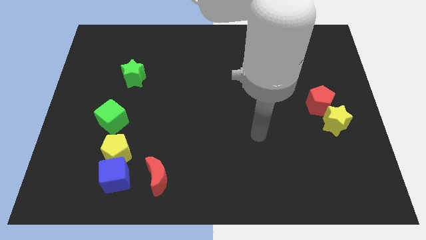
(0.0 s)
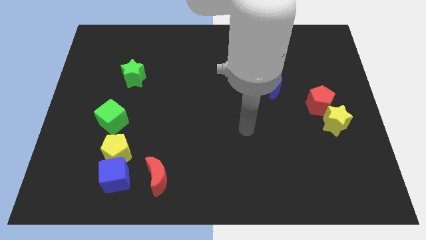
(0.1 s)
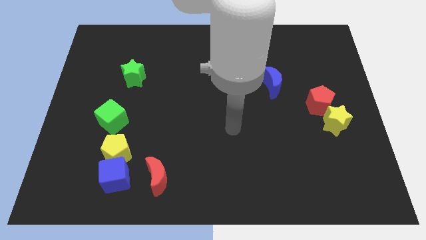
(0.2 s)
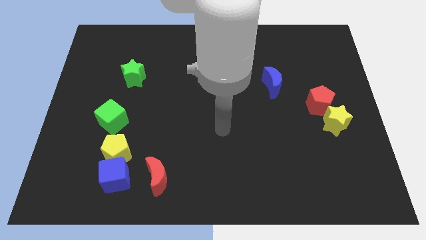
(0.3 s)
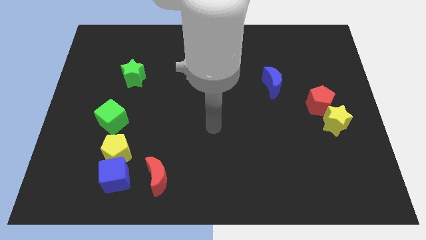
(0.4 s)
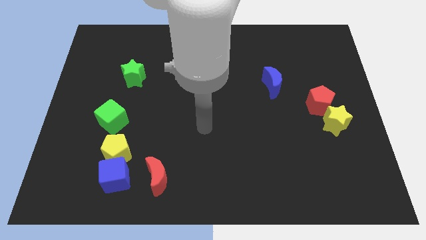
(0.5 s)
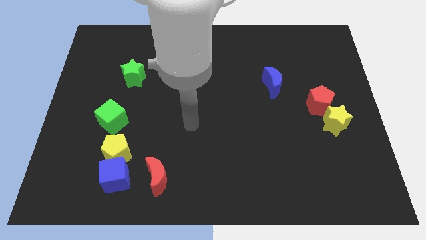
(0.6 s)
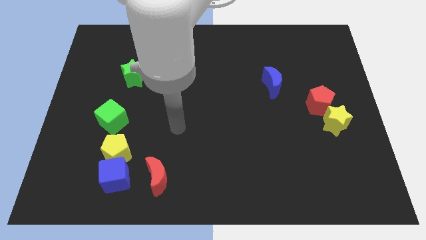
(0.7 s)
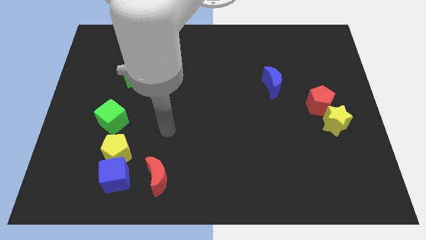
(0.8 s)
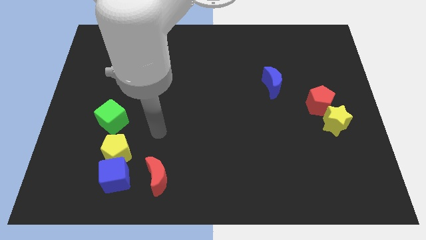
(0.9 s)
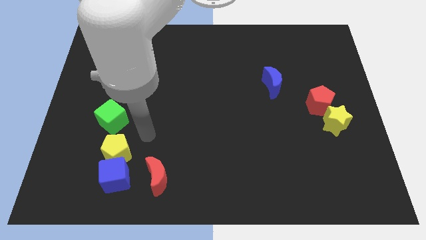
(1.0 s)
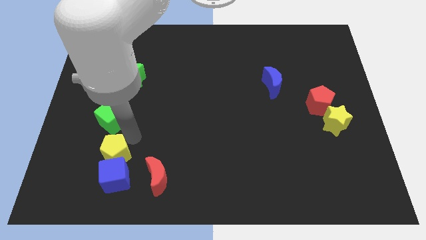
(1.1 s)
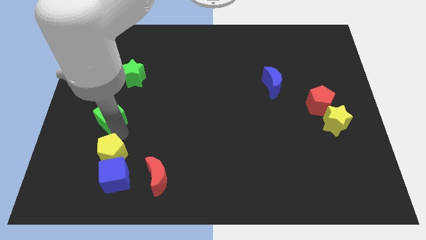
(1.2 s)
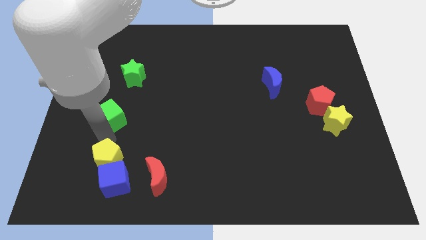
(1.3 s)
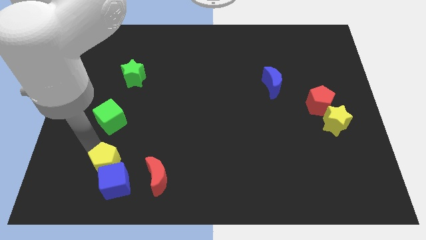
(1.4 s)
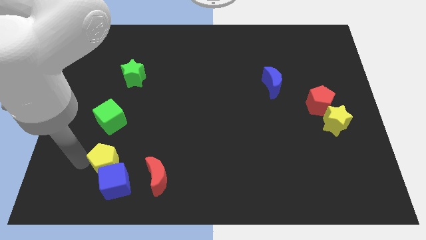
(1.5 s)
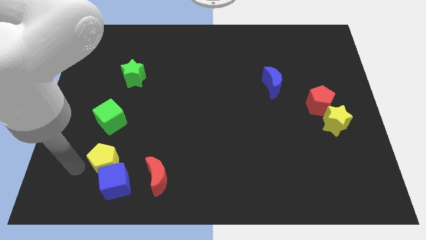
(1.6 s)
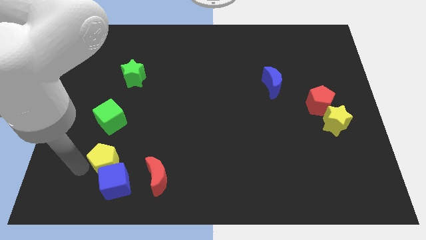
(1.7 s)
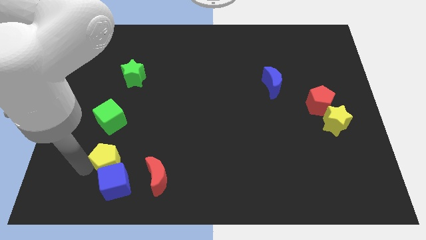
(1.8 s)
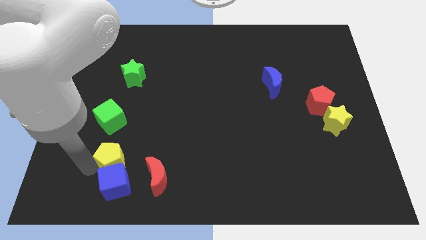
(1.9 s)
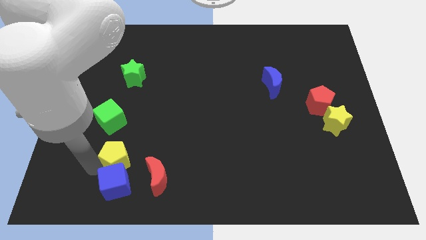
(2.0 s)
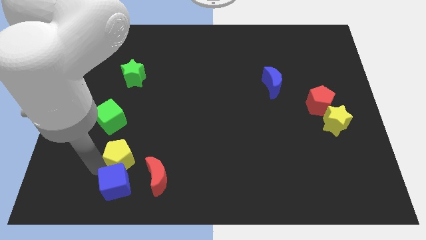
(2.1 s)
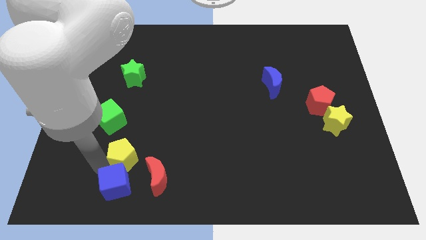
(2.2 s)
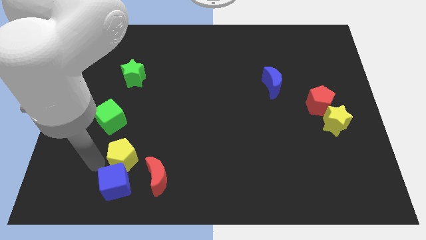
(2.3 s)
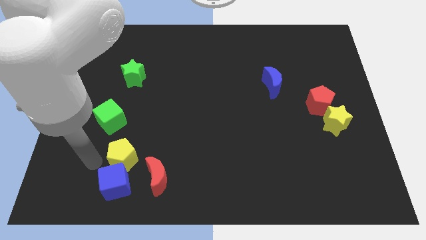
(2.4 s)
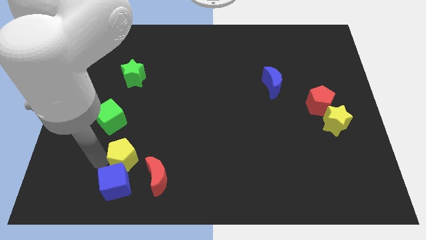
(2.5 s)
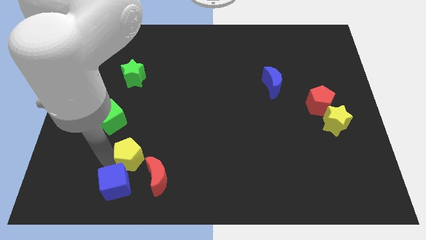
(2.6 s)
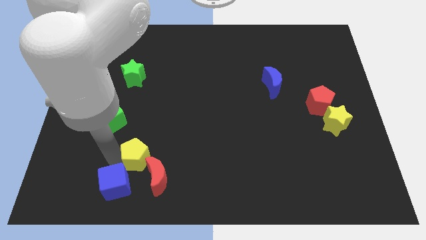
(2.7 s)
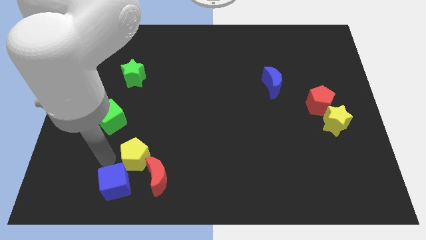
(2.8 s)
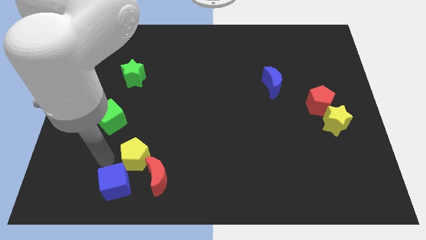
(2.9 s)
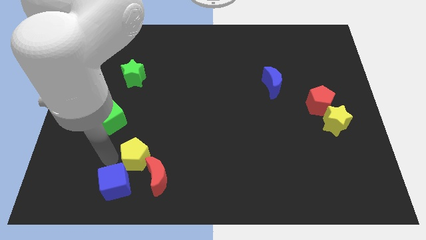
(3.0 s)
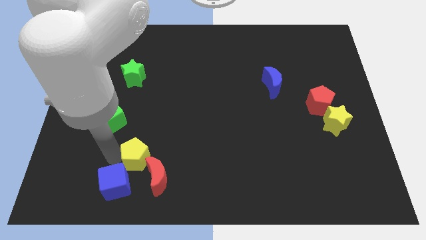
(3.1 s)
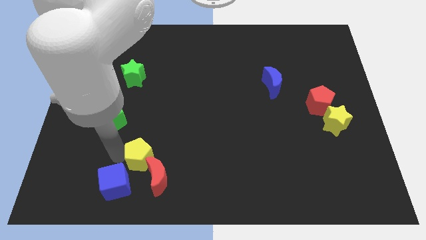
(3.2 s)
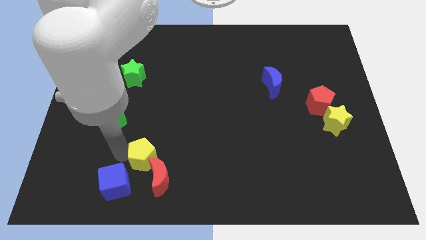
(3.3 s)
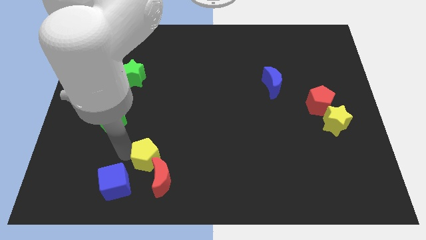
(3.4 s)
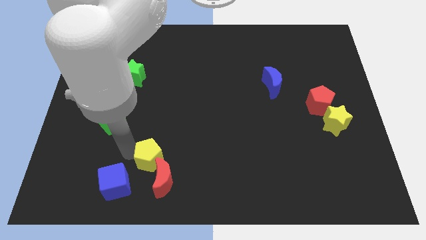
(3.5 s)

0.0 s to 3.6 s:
slide the yellow pentagon a little right

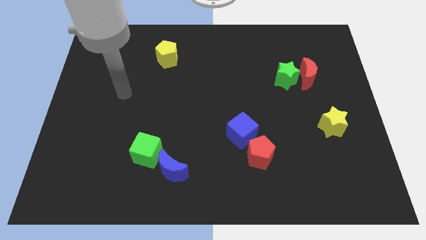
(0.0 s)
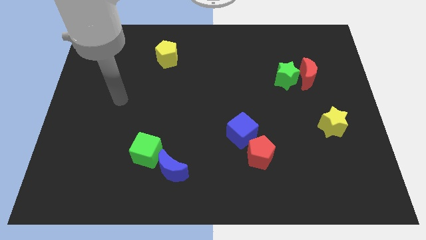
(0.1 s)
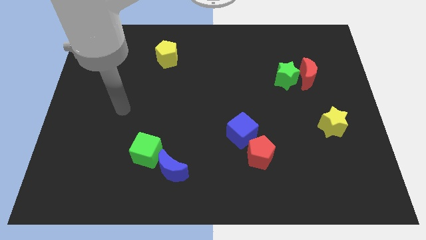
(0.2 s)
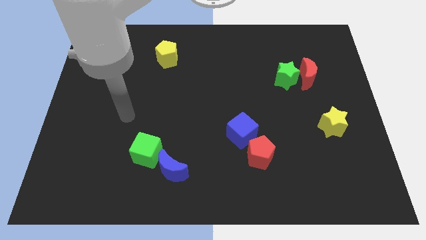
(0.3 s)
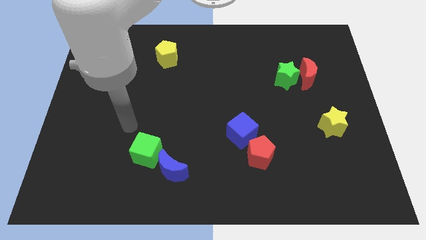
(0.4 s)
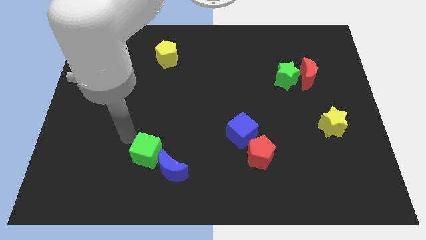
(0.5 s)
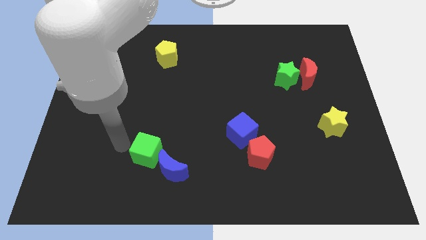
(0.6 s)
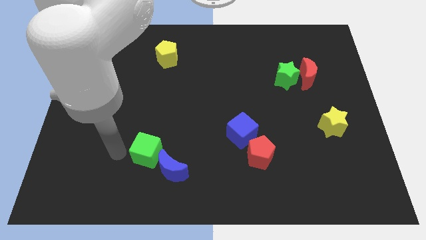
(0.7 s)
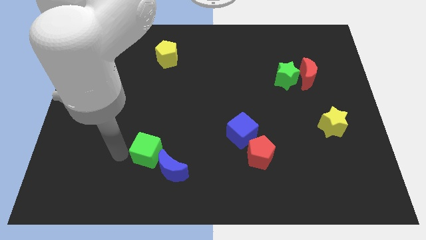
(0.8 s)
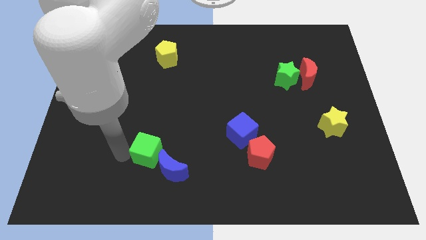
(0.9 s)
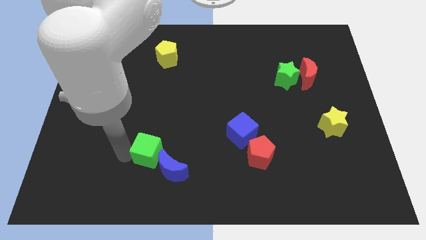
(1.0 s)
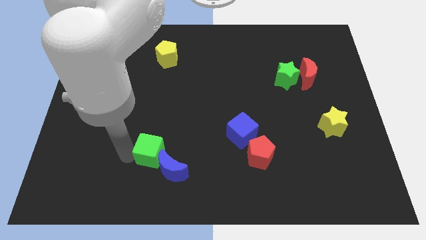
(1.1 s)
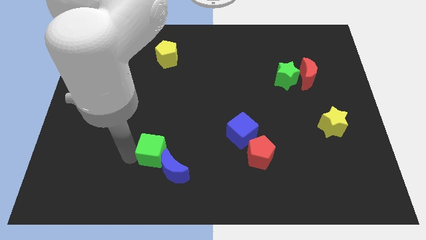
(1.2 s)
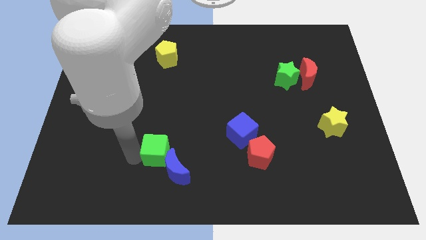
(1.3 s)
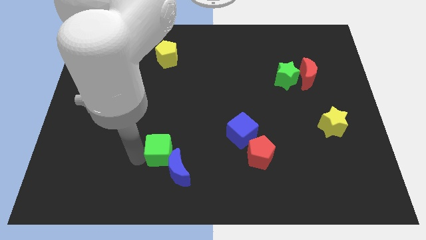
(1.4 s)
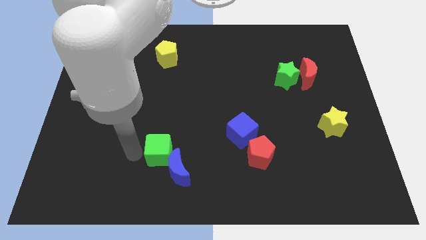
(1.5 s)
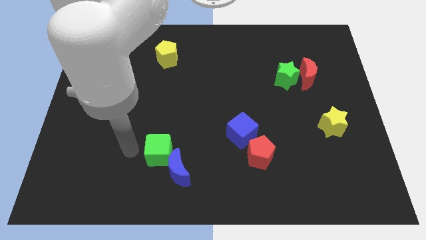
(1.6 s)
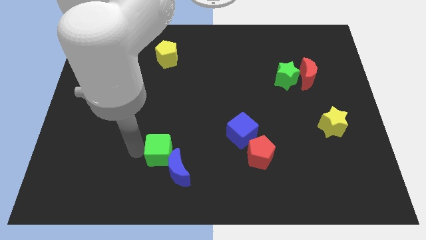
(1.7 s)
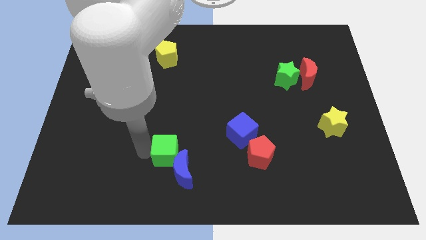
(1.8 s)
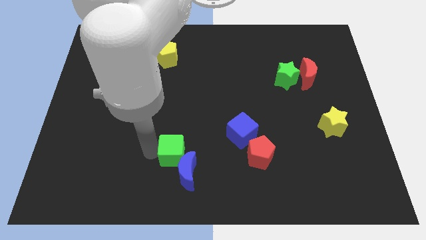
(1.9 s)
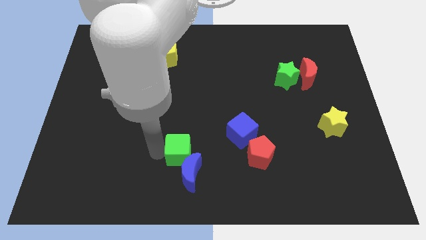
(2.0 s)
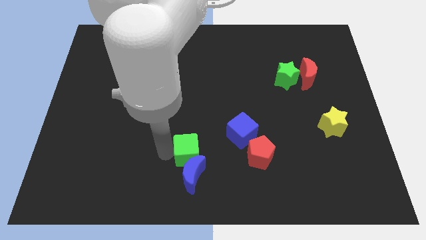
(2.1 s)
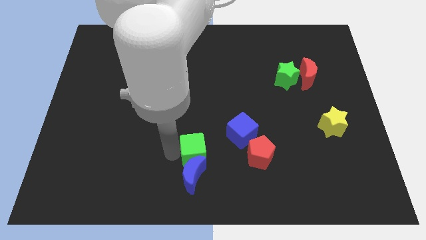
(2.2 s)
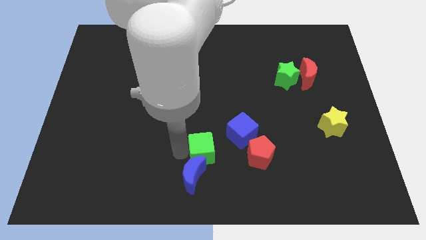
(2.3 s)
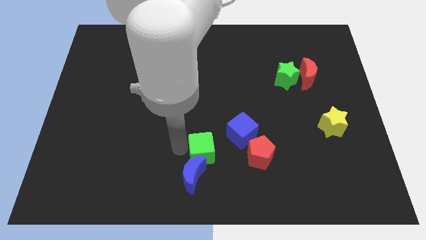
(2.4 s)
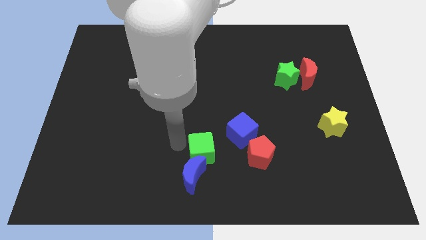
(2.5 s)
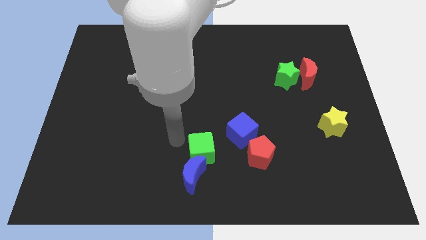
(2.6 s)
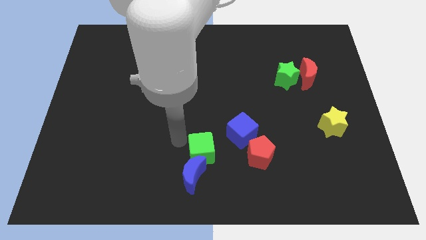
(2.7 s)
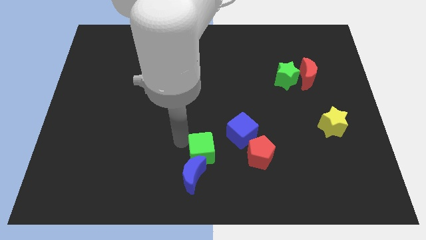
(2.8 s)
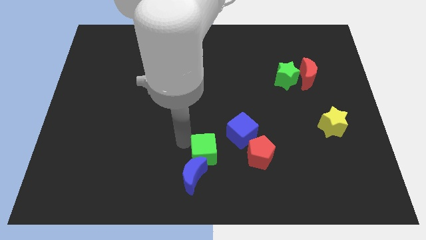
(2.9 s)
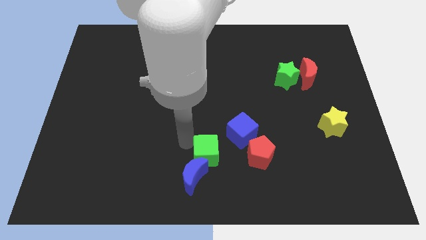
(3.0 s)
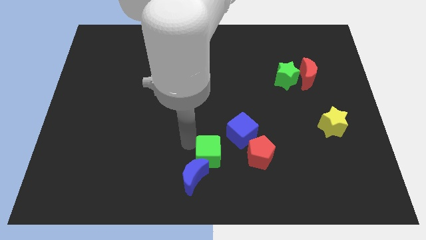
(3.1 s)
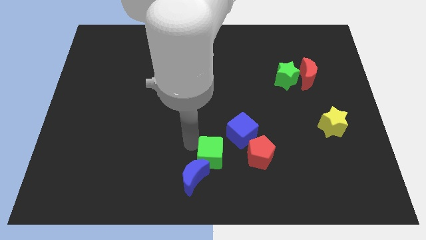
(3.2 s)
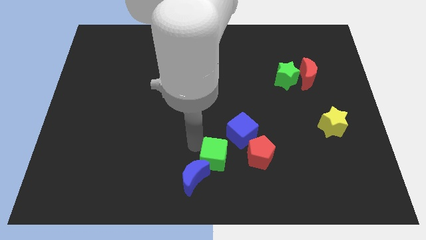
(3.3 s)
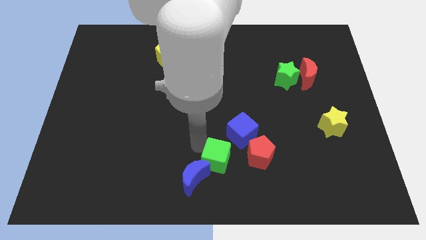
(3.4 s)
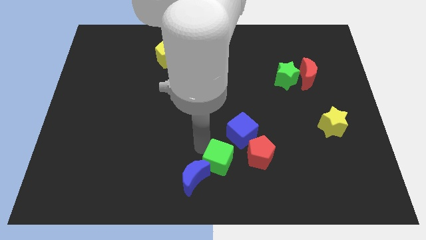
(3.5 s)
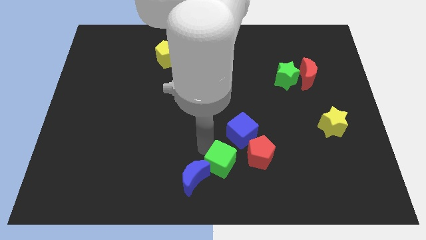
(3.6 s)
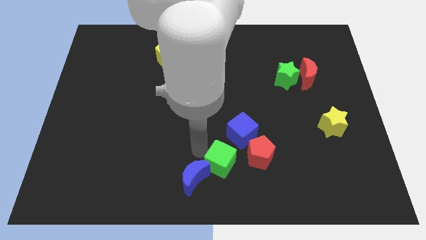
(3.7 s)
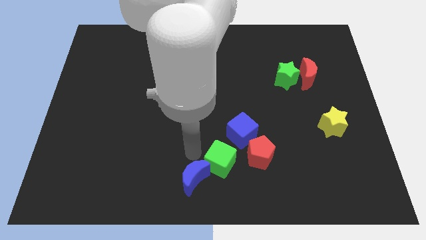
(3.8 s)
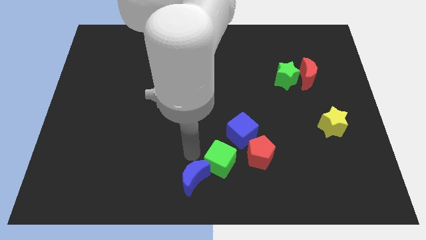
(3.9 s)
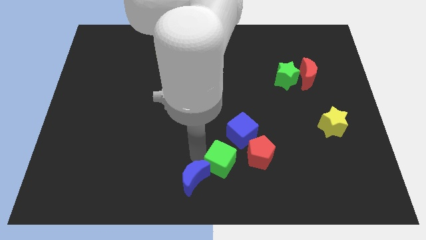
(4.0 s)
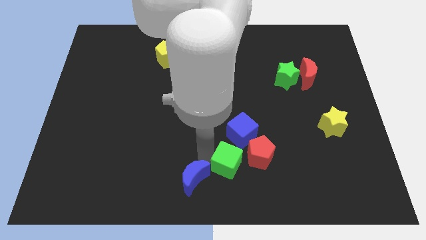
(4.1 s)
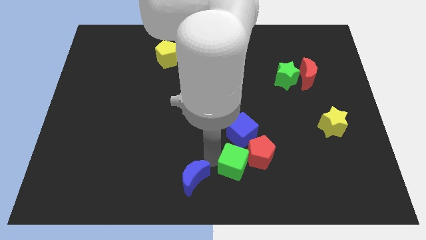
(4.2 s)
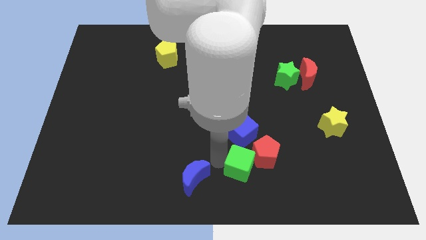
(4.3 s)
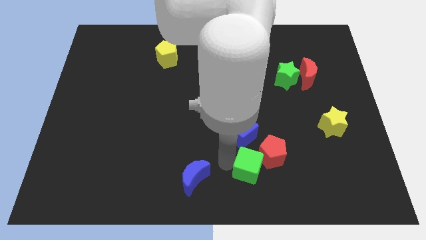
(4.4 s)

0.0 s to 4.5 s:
slide the green cube to the right
